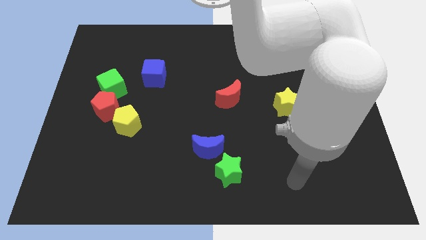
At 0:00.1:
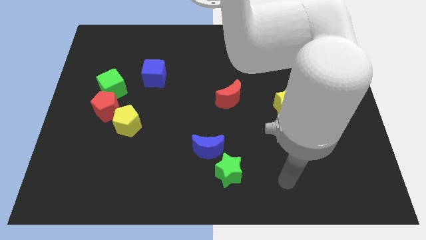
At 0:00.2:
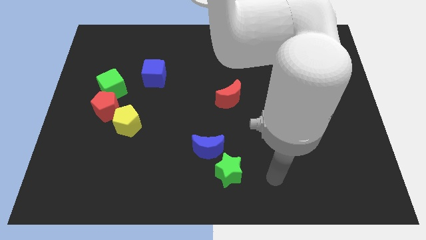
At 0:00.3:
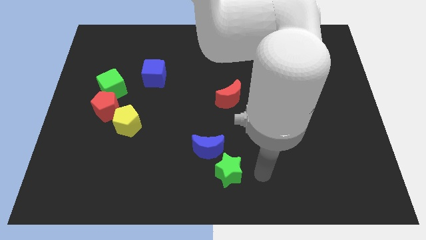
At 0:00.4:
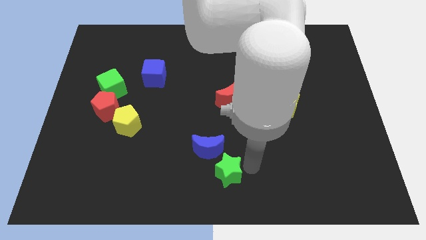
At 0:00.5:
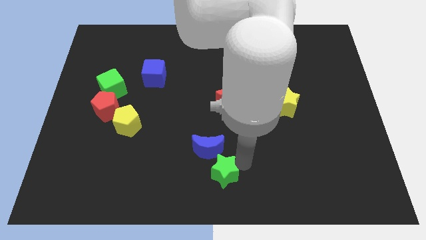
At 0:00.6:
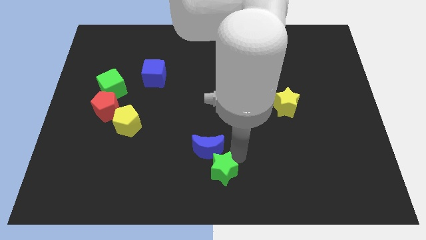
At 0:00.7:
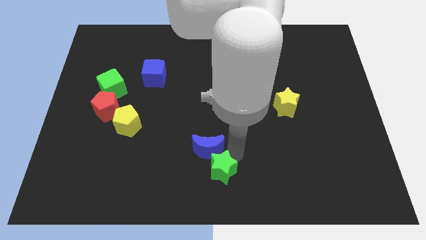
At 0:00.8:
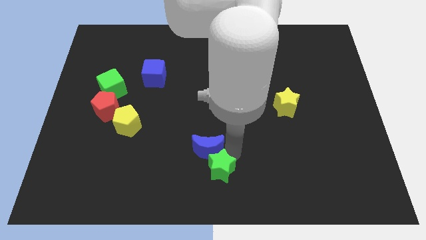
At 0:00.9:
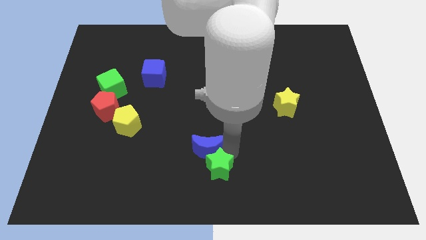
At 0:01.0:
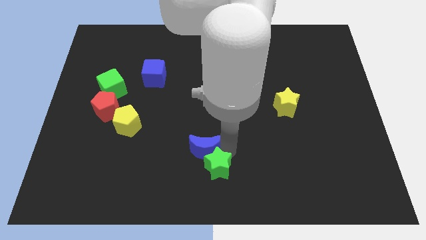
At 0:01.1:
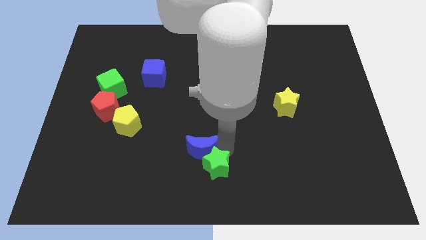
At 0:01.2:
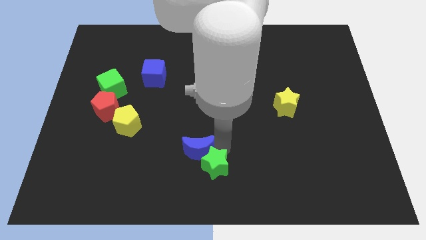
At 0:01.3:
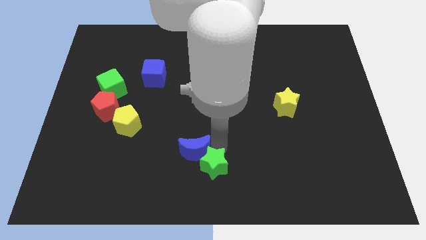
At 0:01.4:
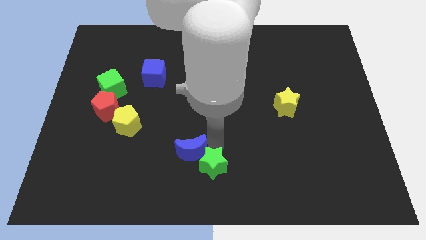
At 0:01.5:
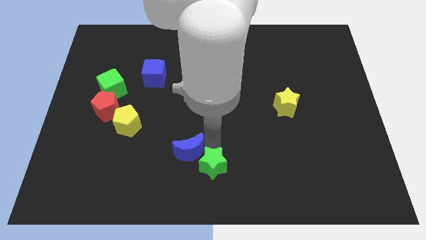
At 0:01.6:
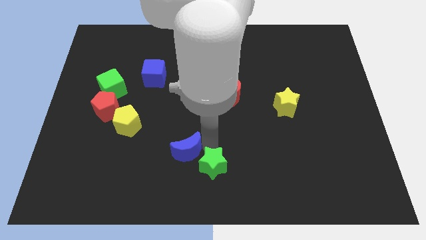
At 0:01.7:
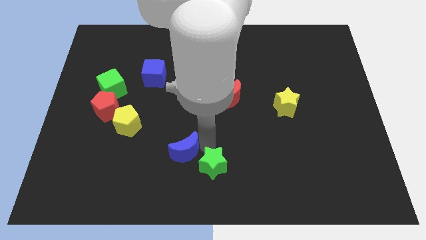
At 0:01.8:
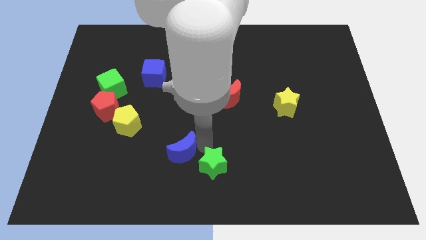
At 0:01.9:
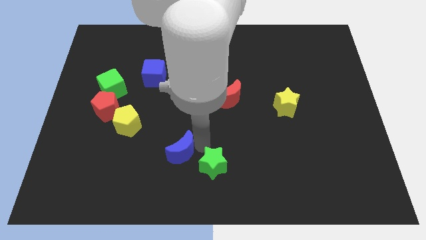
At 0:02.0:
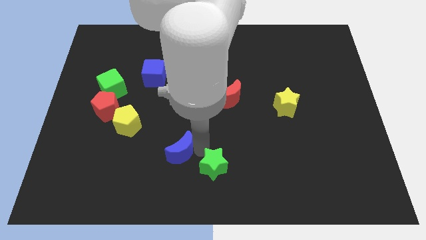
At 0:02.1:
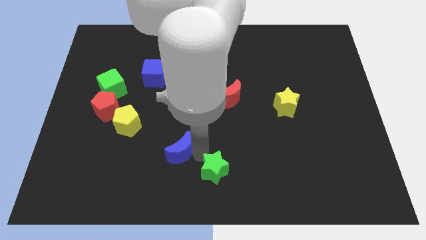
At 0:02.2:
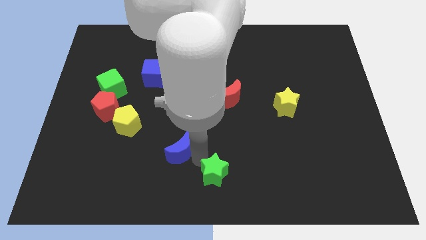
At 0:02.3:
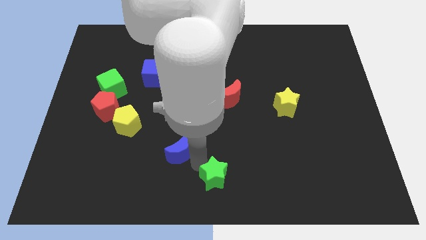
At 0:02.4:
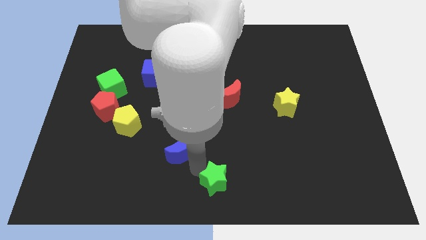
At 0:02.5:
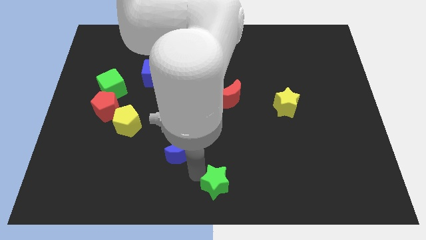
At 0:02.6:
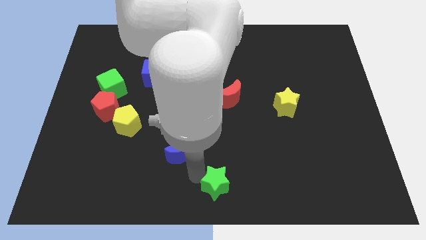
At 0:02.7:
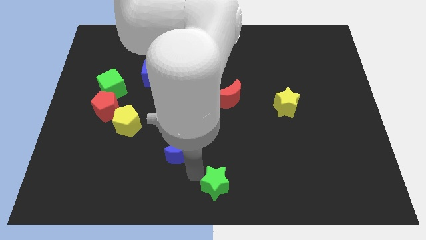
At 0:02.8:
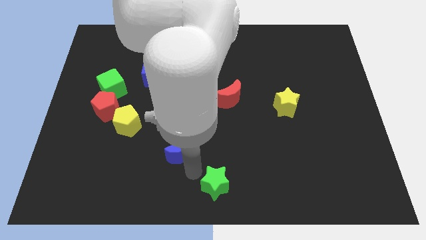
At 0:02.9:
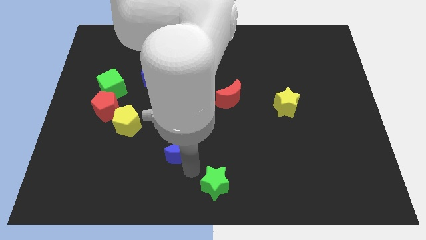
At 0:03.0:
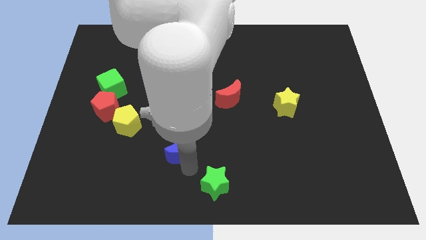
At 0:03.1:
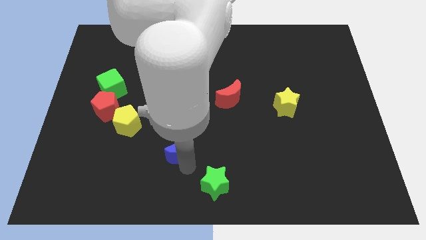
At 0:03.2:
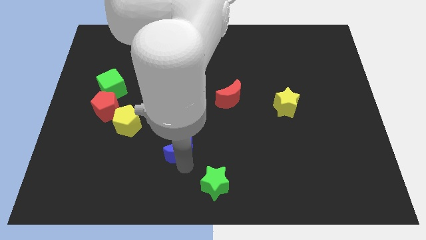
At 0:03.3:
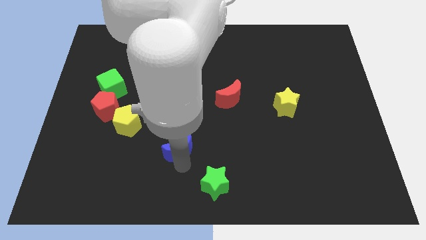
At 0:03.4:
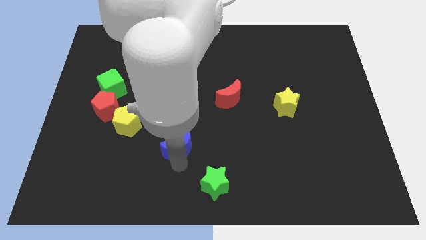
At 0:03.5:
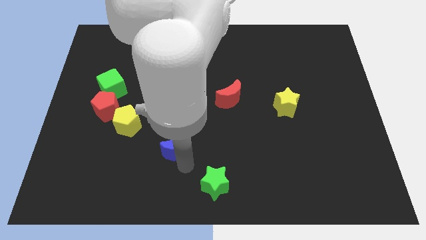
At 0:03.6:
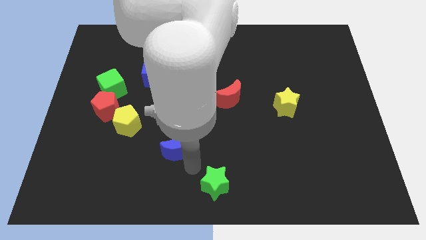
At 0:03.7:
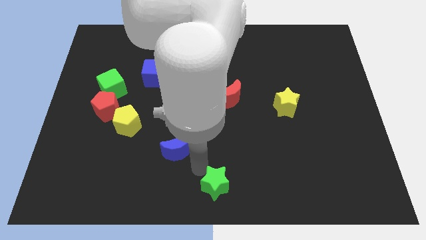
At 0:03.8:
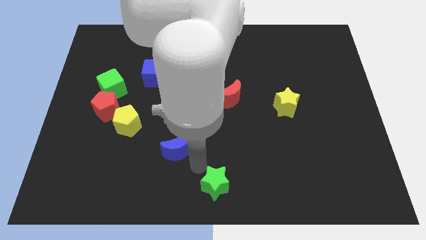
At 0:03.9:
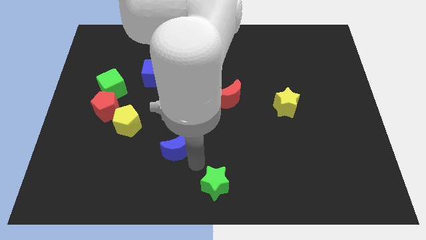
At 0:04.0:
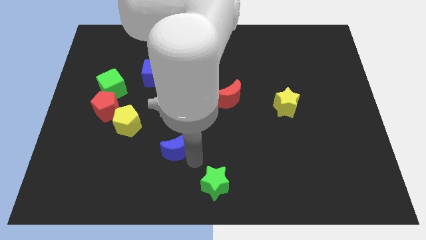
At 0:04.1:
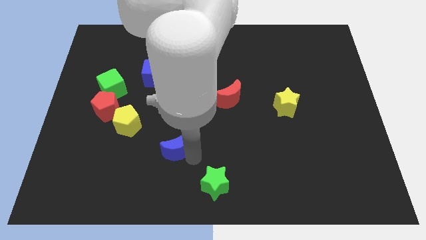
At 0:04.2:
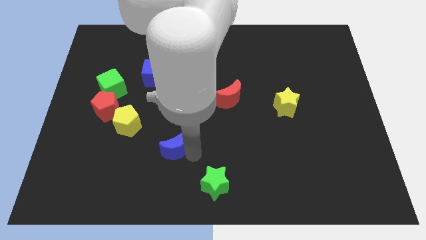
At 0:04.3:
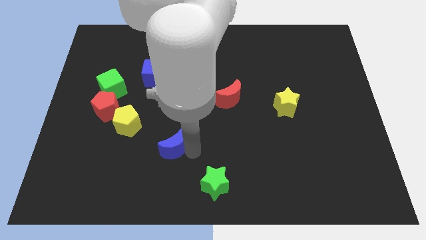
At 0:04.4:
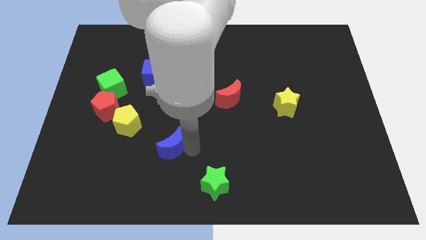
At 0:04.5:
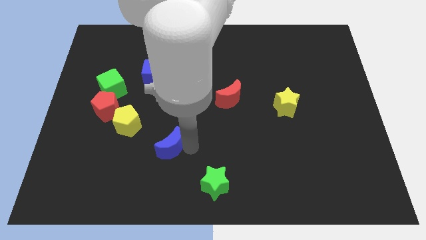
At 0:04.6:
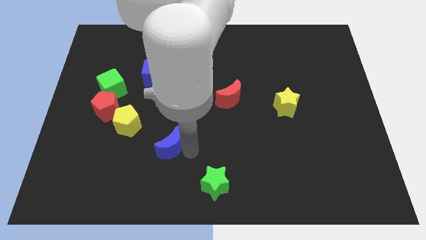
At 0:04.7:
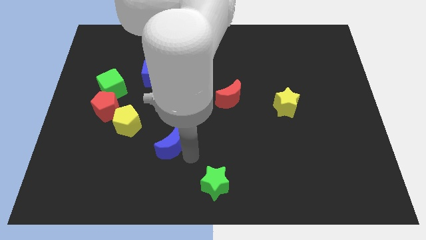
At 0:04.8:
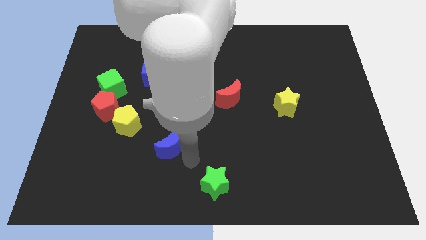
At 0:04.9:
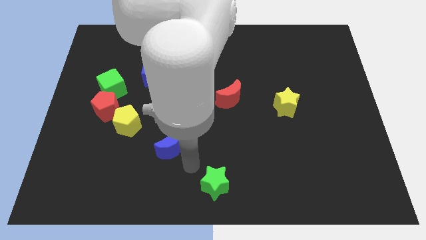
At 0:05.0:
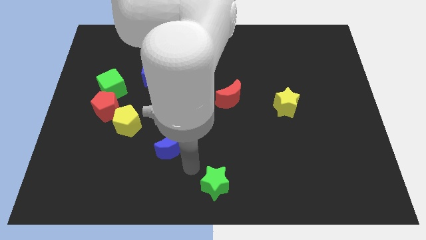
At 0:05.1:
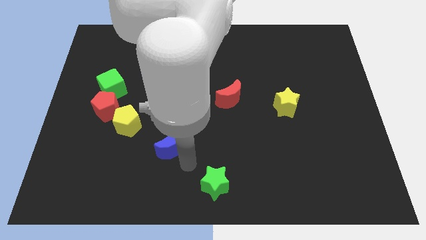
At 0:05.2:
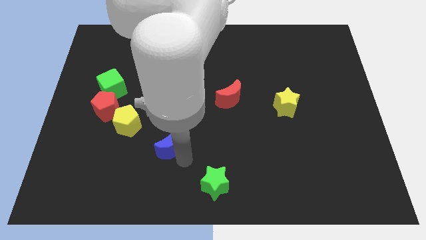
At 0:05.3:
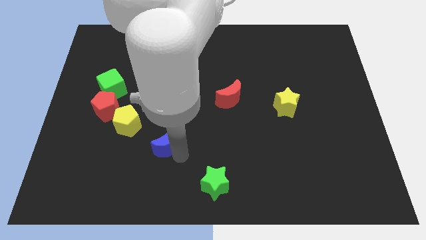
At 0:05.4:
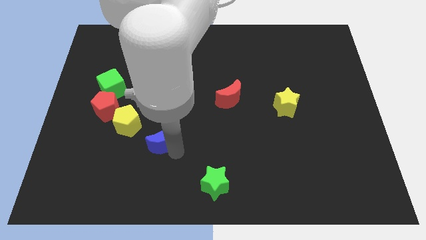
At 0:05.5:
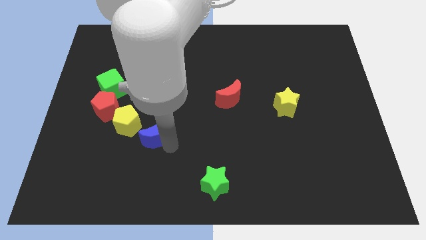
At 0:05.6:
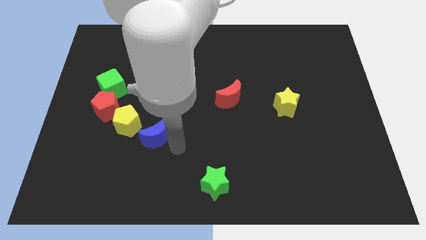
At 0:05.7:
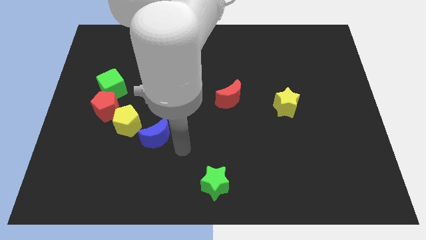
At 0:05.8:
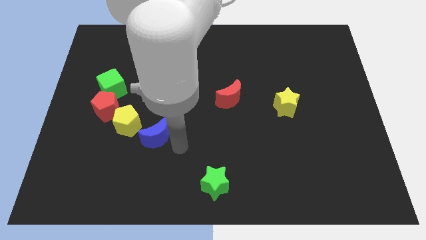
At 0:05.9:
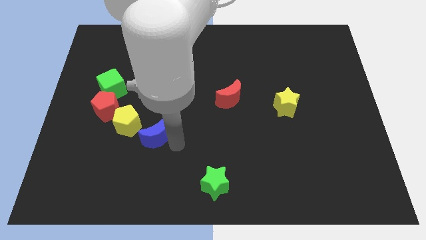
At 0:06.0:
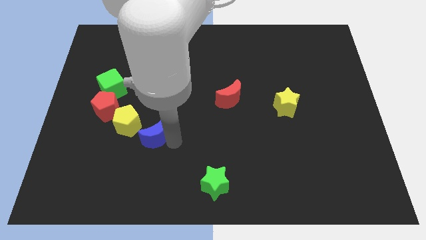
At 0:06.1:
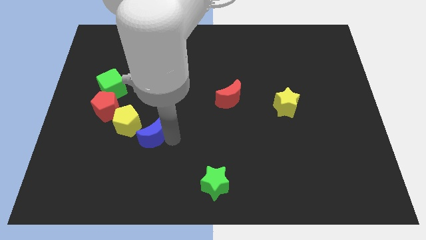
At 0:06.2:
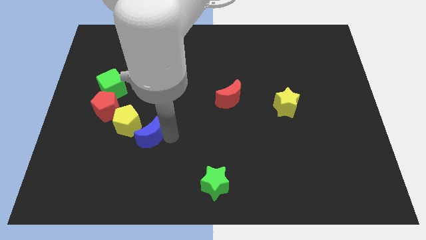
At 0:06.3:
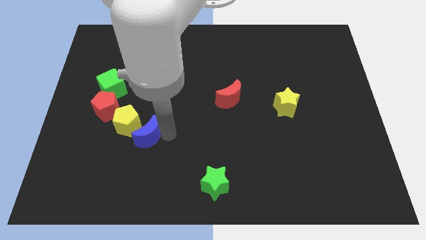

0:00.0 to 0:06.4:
slide the blue moon towards the yellow pentagon

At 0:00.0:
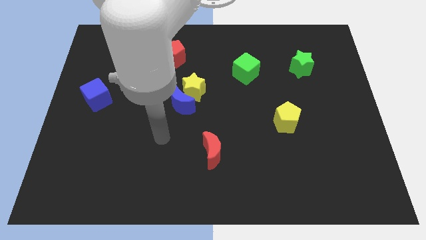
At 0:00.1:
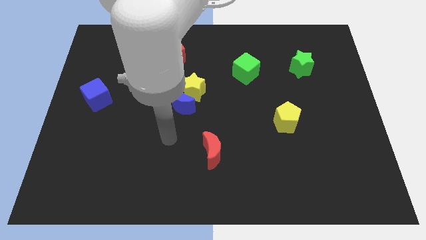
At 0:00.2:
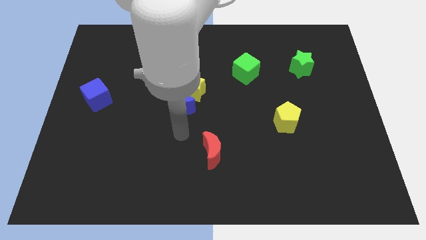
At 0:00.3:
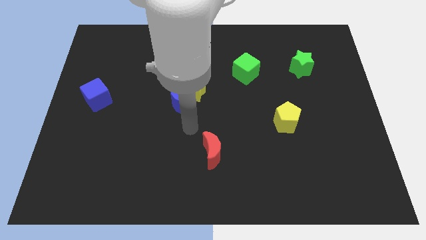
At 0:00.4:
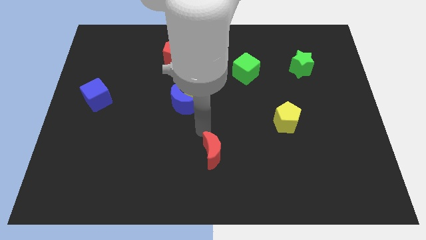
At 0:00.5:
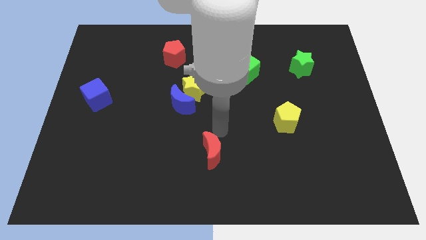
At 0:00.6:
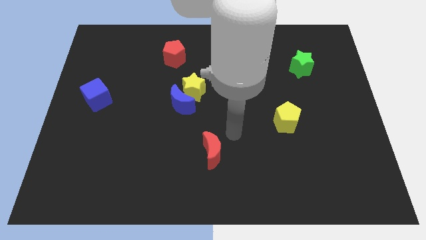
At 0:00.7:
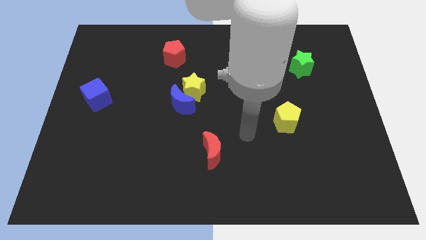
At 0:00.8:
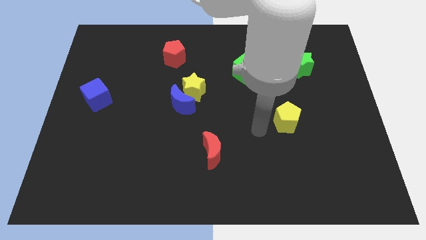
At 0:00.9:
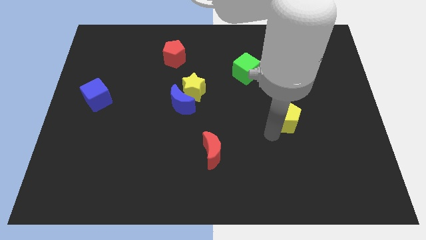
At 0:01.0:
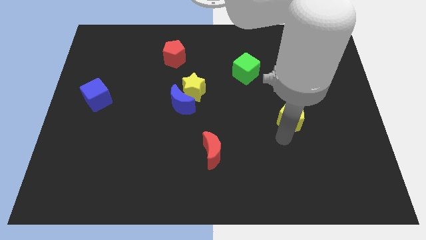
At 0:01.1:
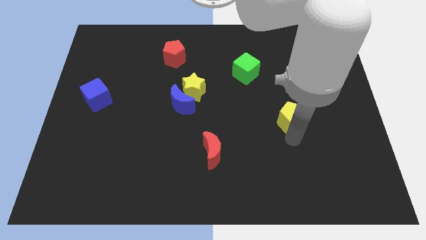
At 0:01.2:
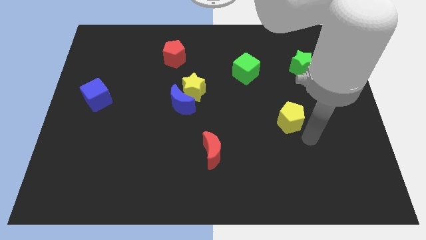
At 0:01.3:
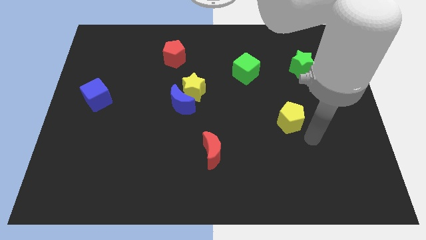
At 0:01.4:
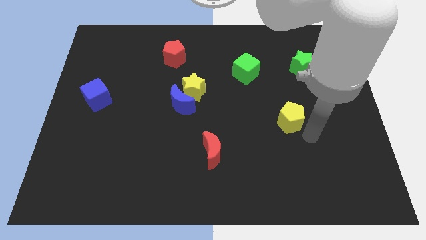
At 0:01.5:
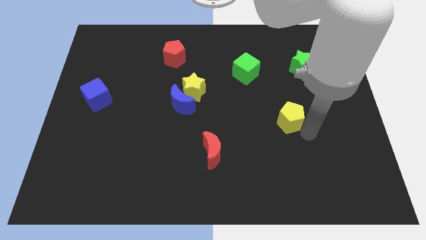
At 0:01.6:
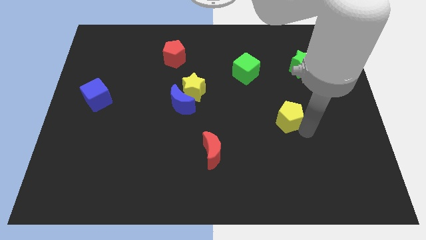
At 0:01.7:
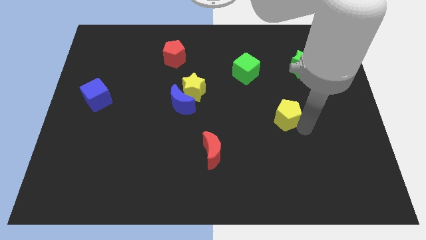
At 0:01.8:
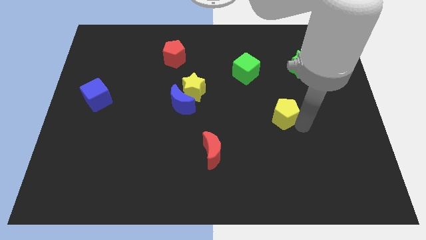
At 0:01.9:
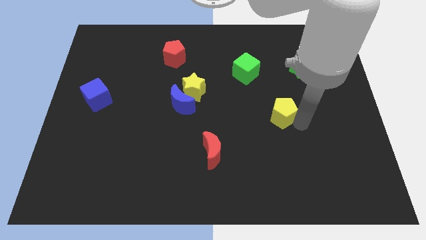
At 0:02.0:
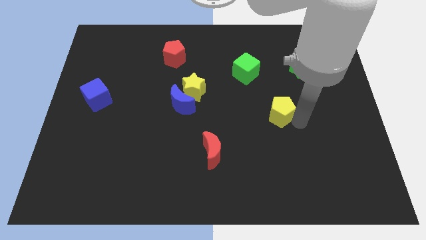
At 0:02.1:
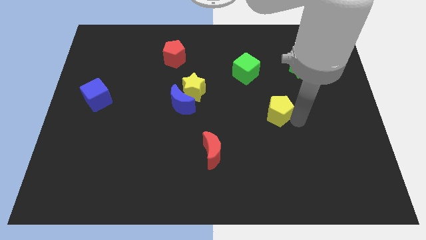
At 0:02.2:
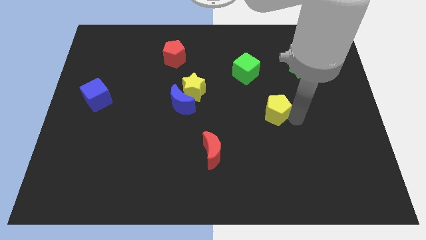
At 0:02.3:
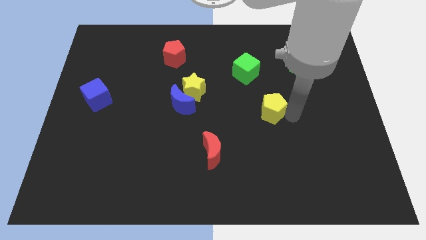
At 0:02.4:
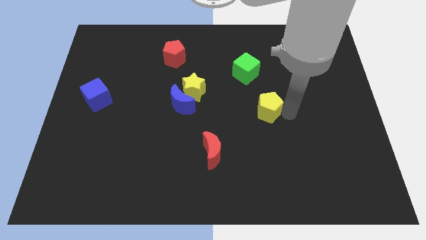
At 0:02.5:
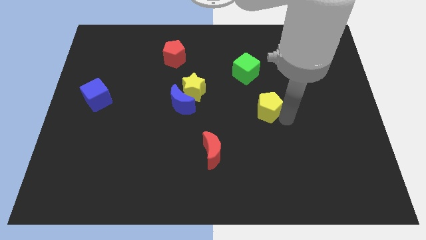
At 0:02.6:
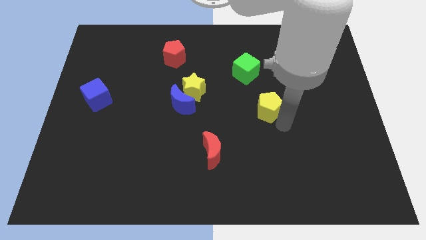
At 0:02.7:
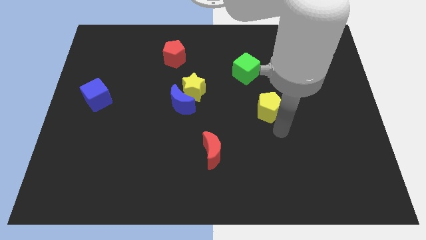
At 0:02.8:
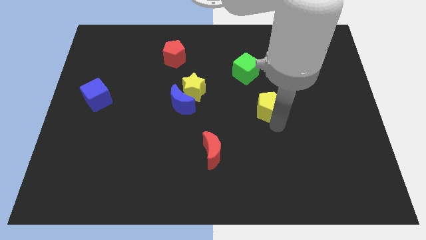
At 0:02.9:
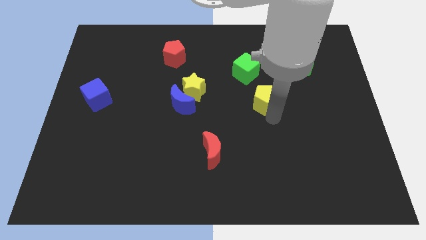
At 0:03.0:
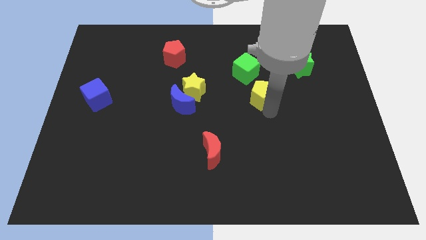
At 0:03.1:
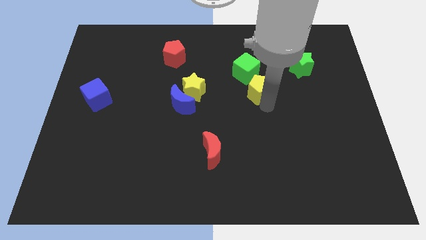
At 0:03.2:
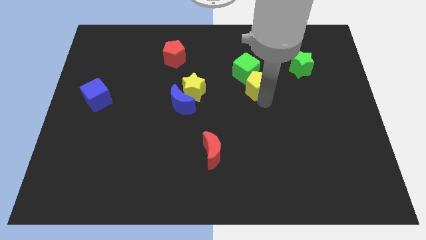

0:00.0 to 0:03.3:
put the yellow pentagon towards the green cube
